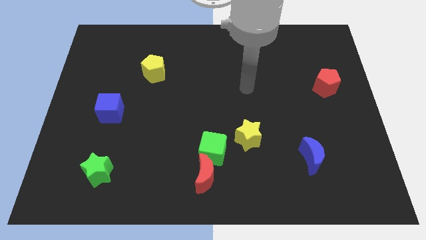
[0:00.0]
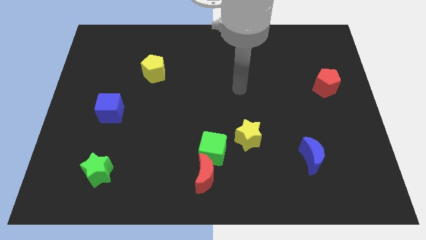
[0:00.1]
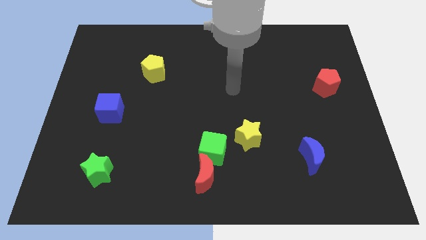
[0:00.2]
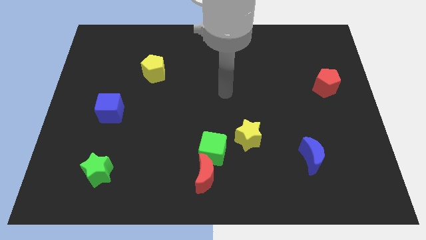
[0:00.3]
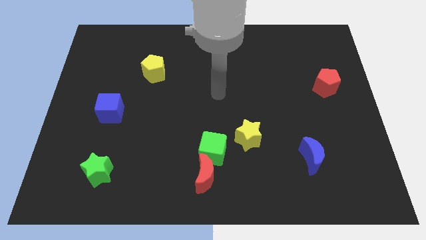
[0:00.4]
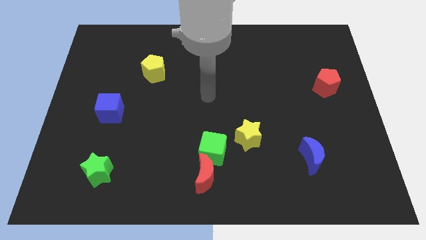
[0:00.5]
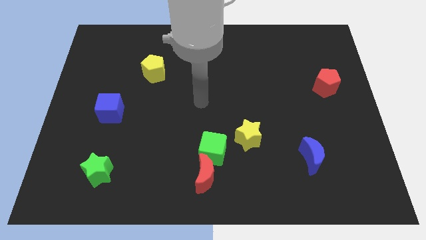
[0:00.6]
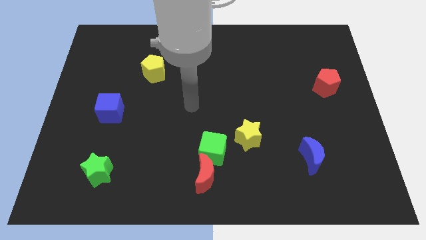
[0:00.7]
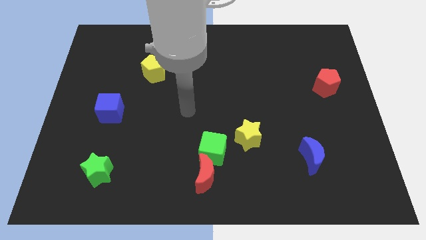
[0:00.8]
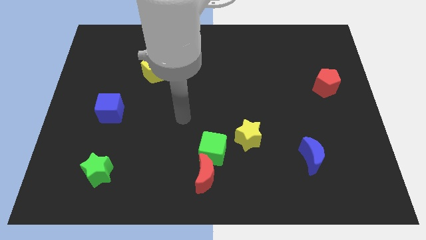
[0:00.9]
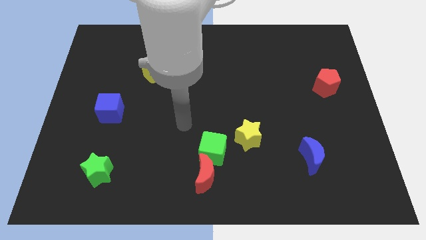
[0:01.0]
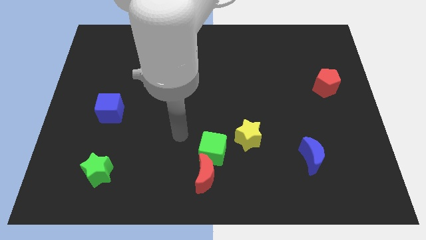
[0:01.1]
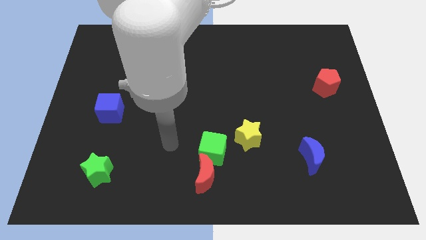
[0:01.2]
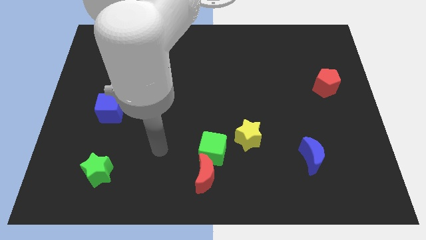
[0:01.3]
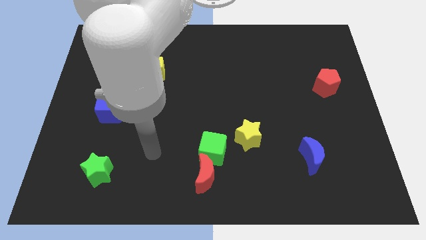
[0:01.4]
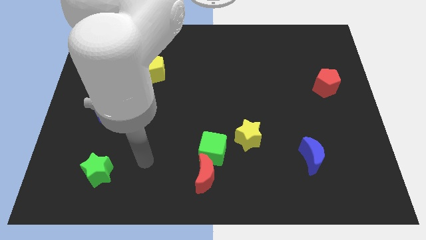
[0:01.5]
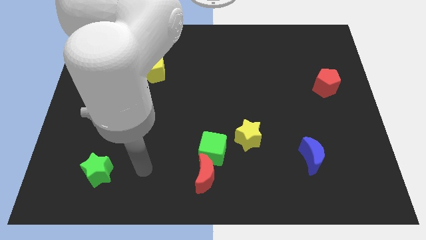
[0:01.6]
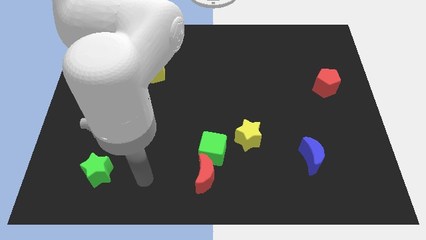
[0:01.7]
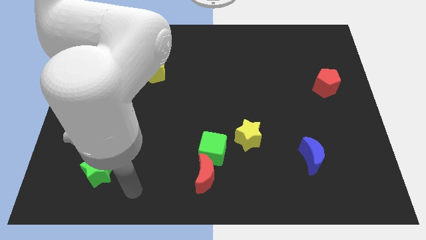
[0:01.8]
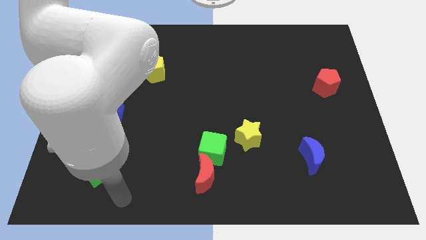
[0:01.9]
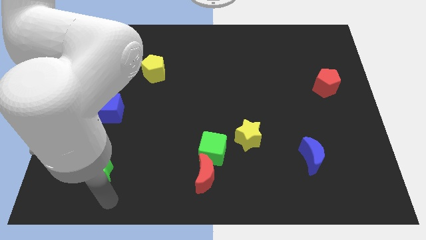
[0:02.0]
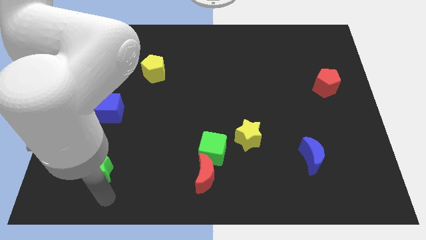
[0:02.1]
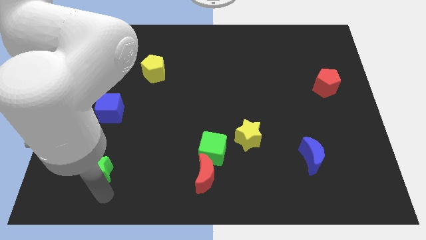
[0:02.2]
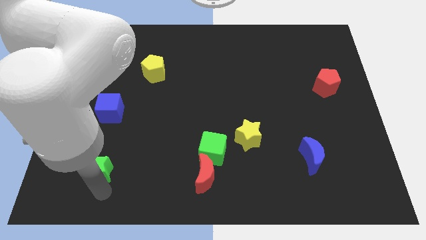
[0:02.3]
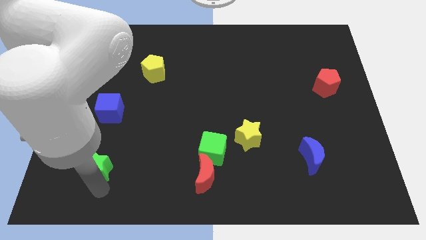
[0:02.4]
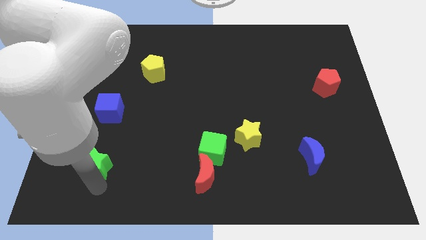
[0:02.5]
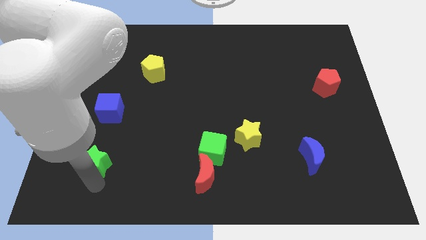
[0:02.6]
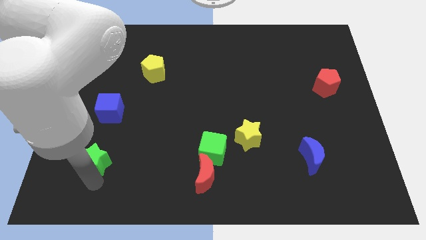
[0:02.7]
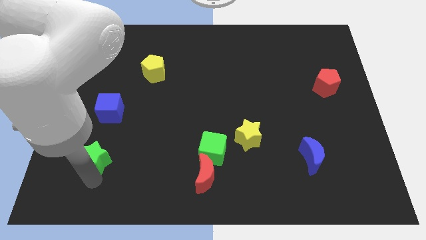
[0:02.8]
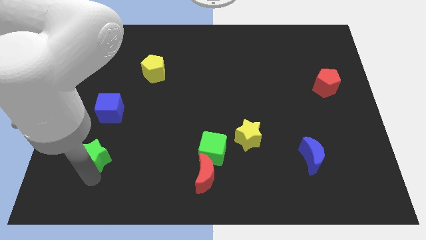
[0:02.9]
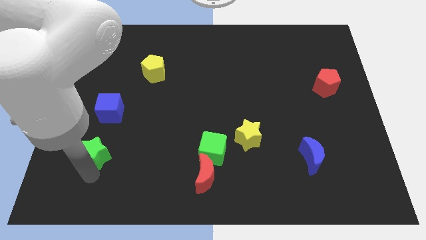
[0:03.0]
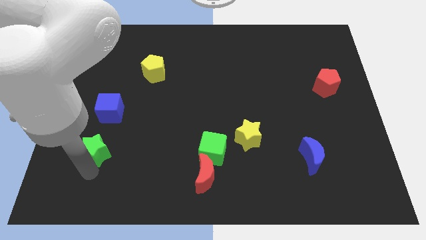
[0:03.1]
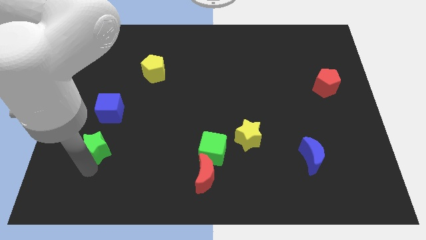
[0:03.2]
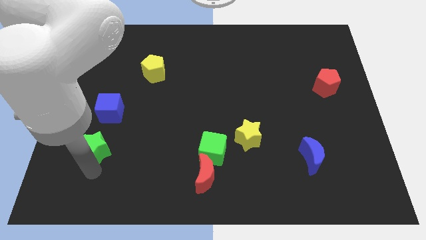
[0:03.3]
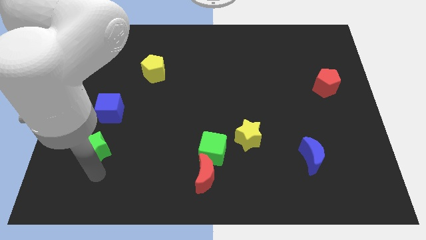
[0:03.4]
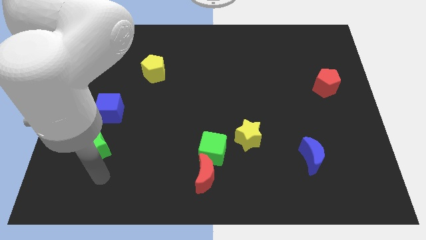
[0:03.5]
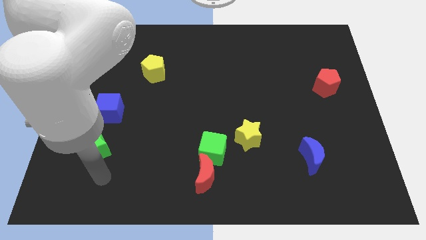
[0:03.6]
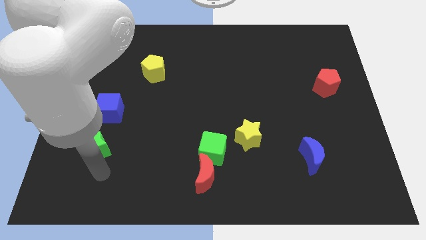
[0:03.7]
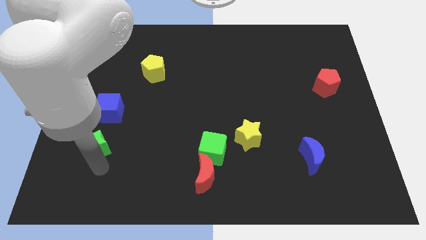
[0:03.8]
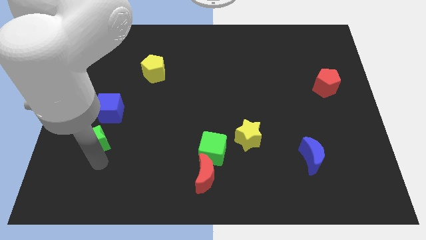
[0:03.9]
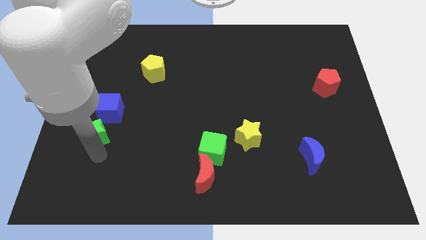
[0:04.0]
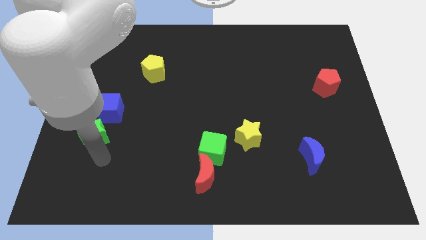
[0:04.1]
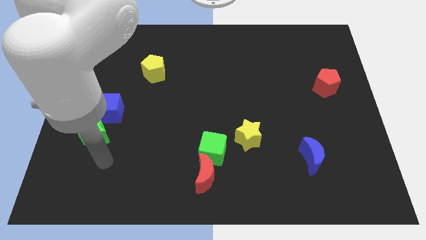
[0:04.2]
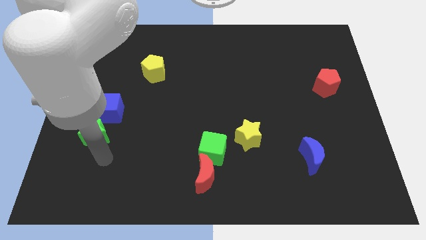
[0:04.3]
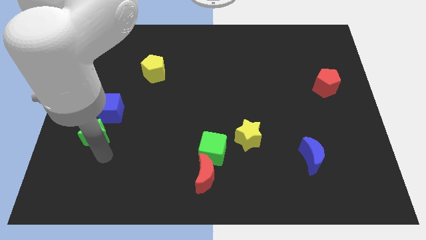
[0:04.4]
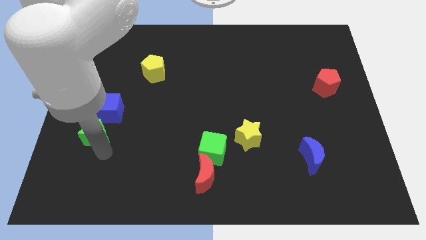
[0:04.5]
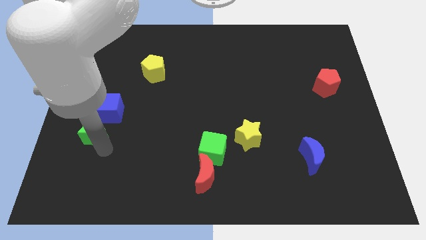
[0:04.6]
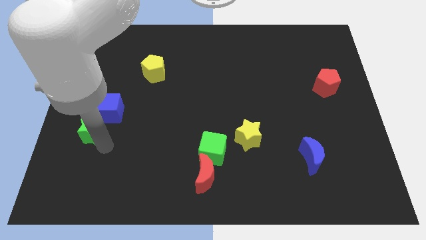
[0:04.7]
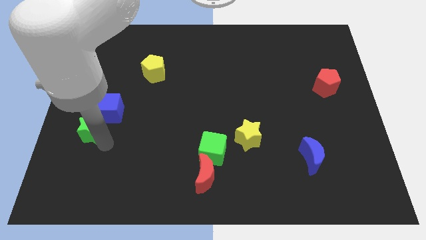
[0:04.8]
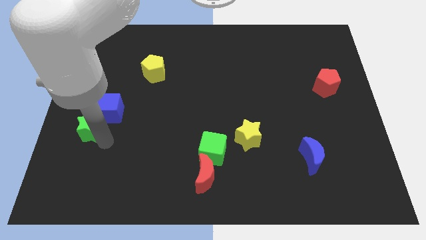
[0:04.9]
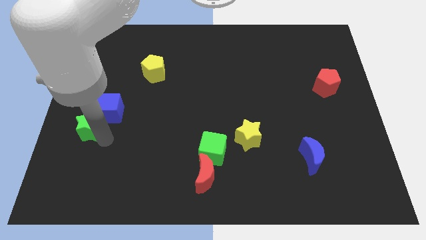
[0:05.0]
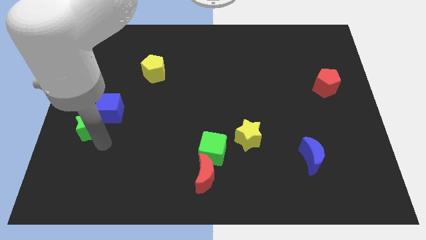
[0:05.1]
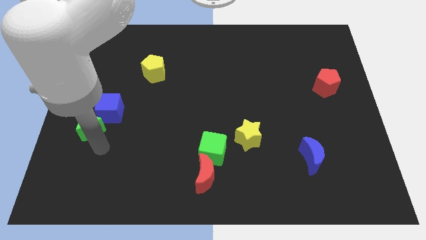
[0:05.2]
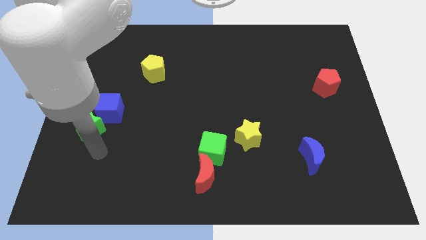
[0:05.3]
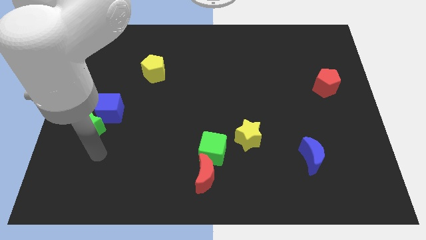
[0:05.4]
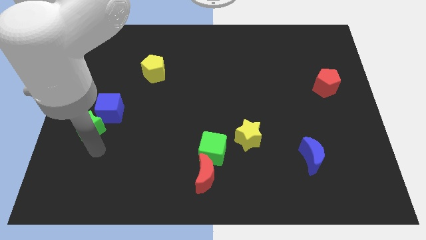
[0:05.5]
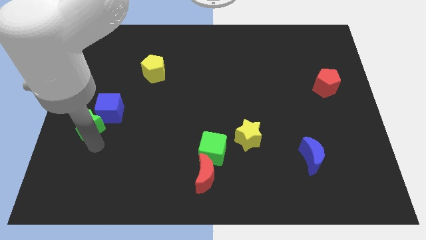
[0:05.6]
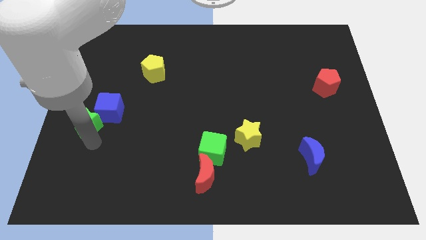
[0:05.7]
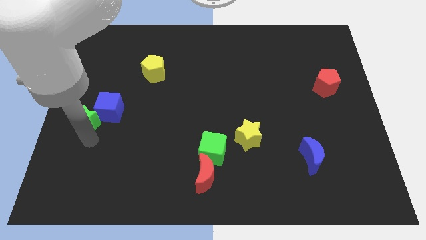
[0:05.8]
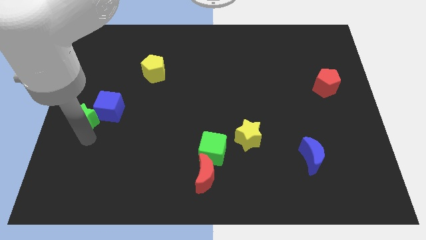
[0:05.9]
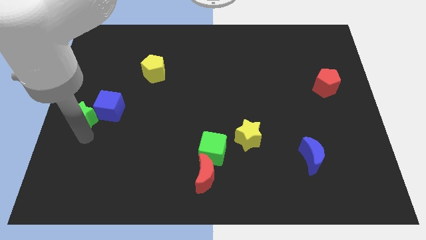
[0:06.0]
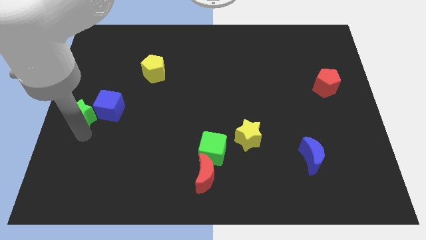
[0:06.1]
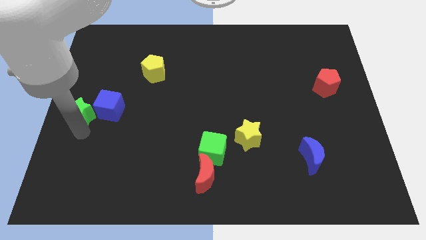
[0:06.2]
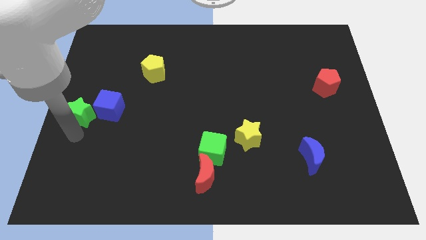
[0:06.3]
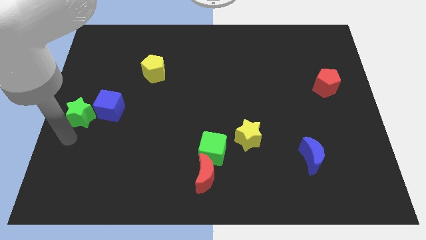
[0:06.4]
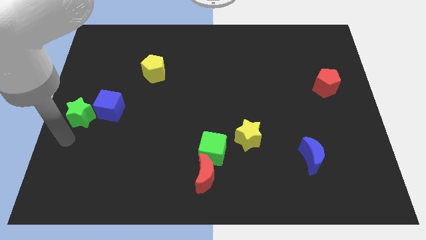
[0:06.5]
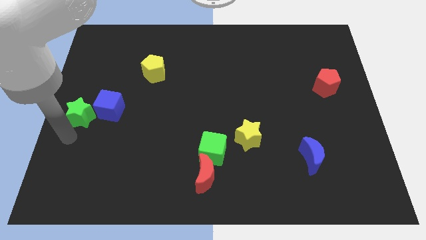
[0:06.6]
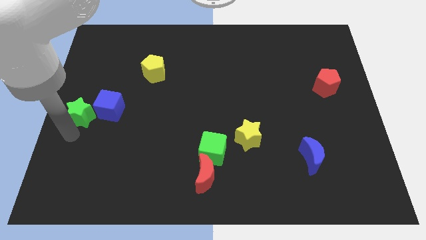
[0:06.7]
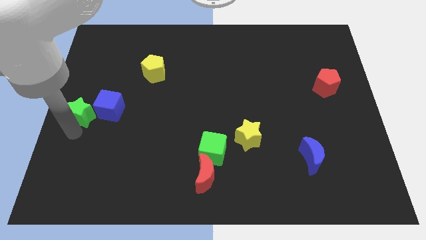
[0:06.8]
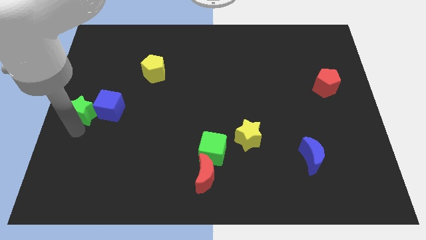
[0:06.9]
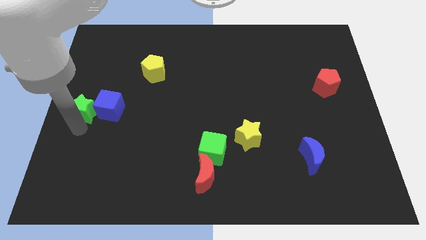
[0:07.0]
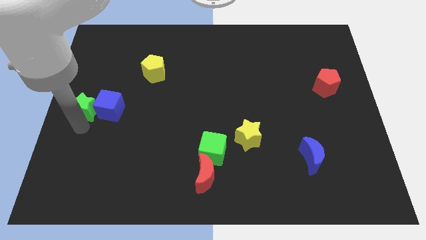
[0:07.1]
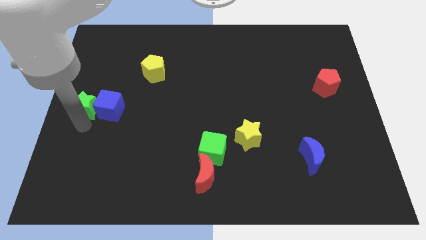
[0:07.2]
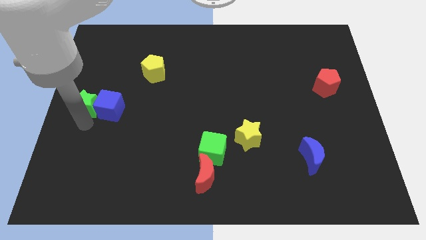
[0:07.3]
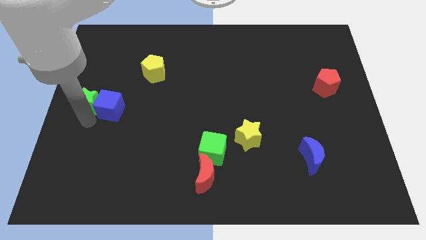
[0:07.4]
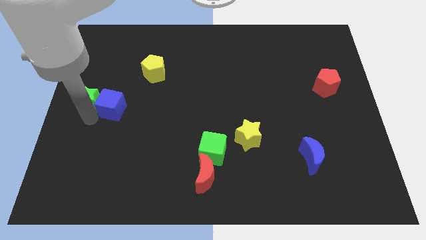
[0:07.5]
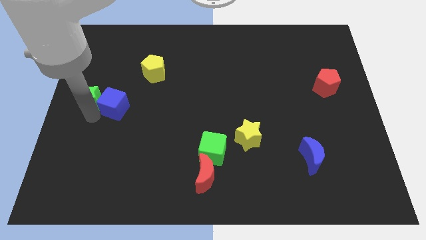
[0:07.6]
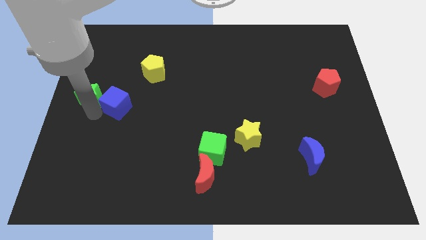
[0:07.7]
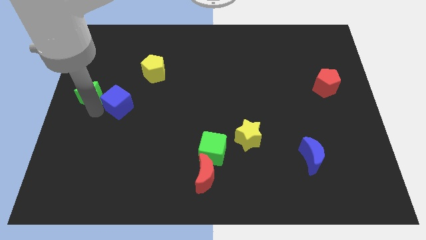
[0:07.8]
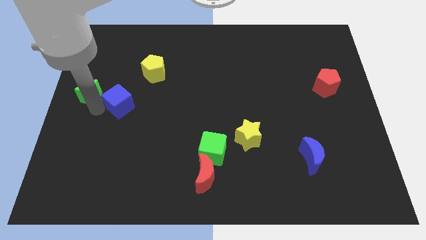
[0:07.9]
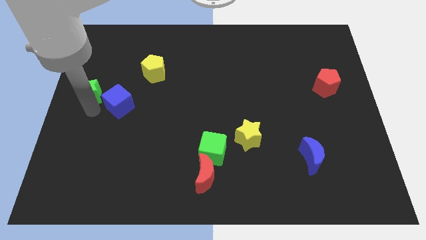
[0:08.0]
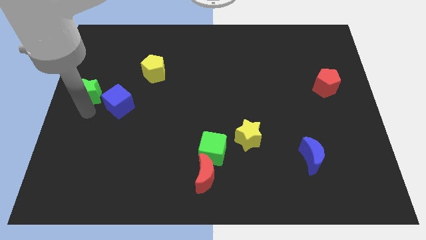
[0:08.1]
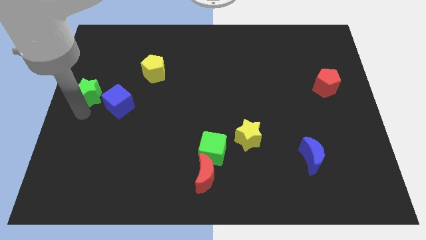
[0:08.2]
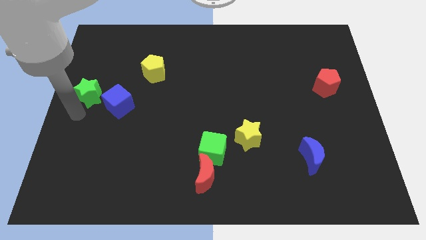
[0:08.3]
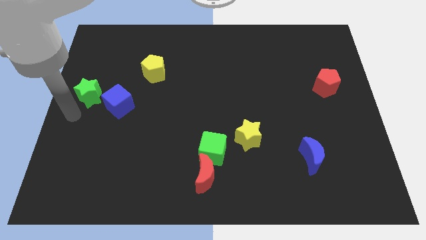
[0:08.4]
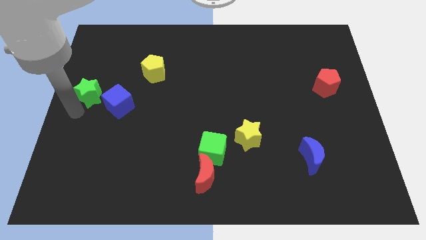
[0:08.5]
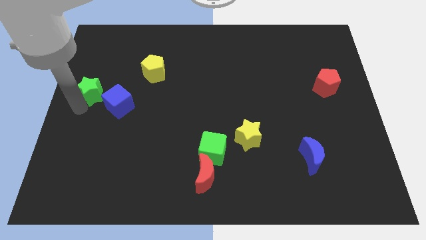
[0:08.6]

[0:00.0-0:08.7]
push the green star upwards
